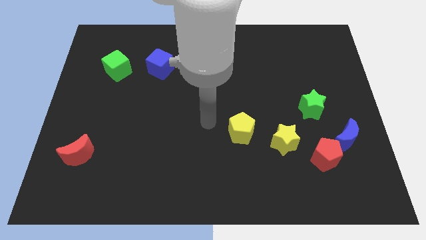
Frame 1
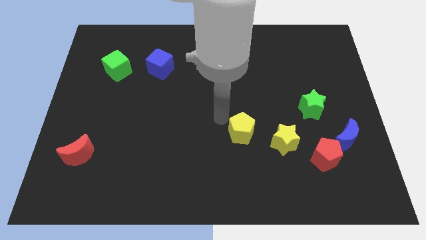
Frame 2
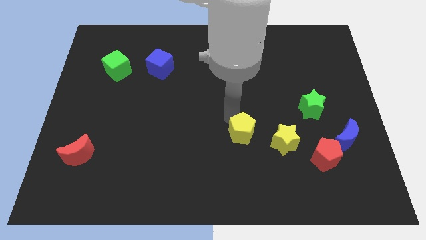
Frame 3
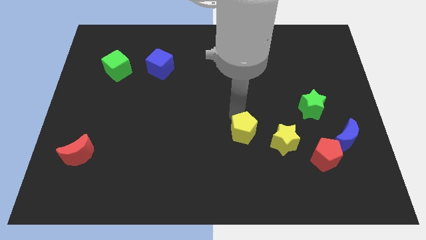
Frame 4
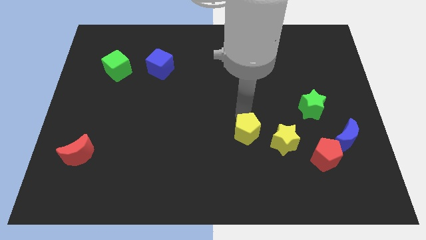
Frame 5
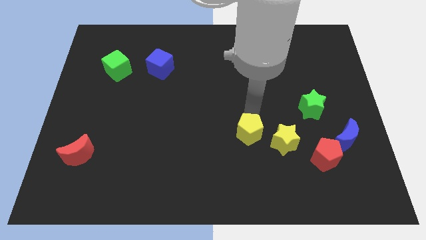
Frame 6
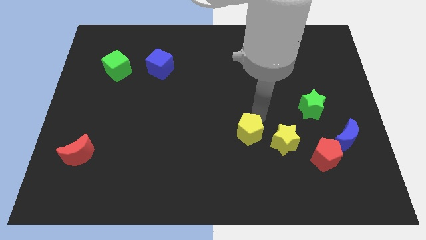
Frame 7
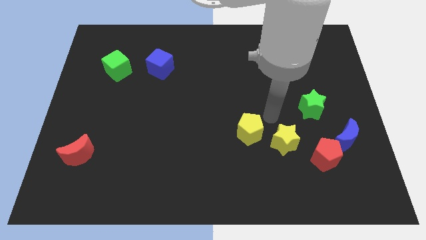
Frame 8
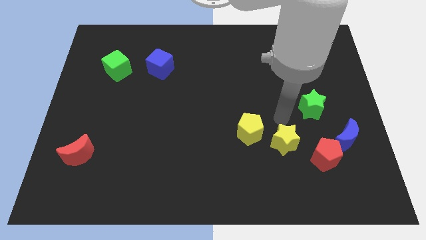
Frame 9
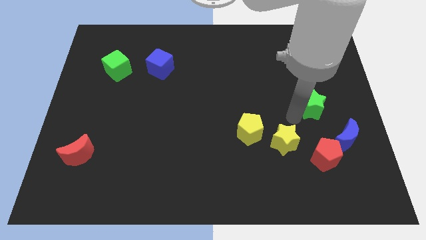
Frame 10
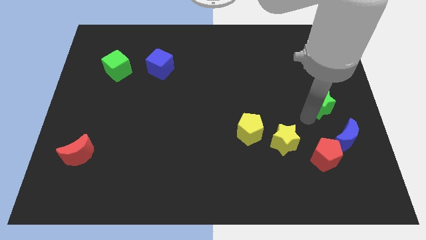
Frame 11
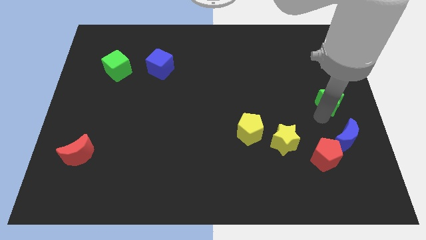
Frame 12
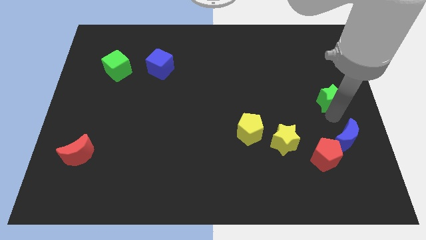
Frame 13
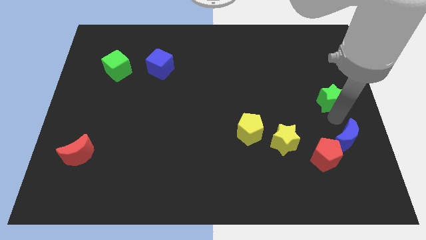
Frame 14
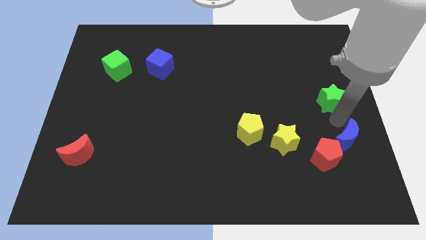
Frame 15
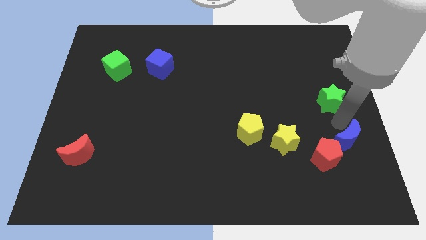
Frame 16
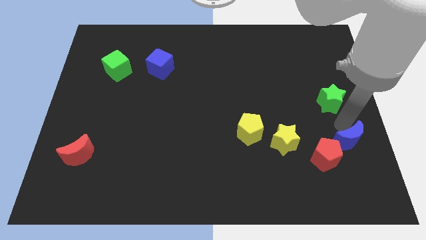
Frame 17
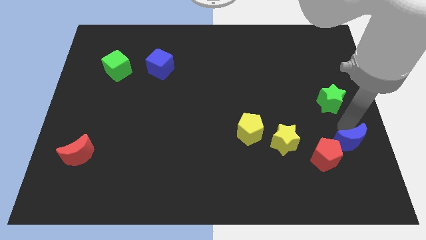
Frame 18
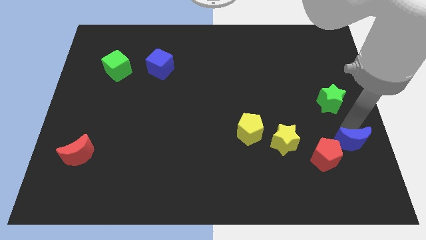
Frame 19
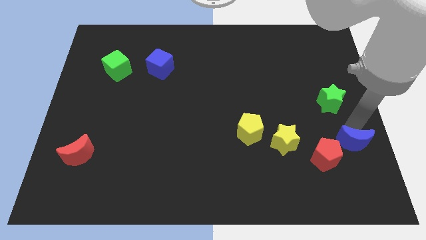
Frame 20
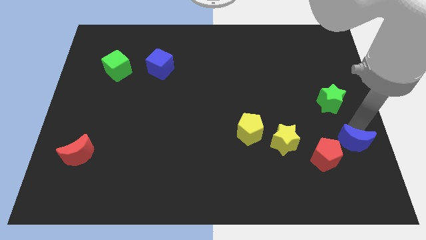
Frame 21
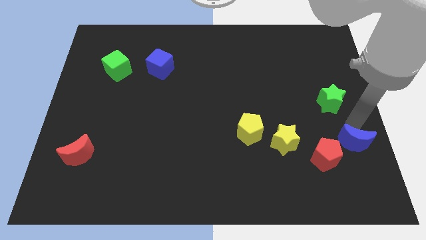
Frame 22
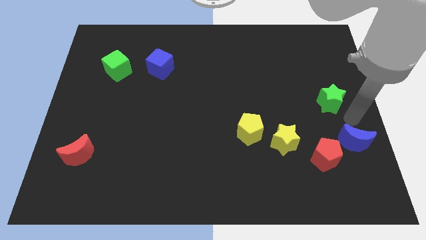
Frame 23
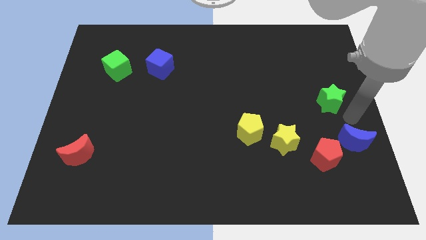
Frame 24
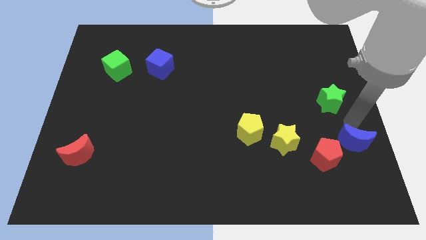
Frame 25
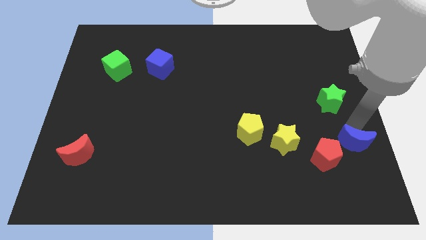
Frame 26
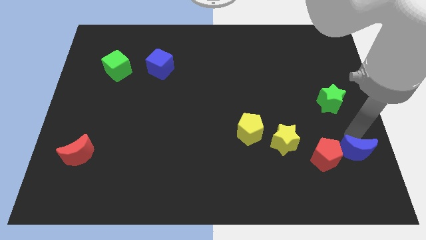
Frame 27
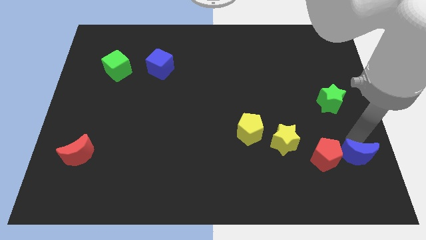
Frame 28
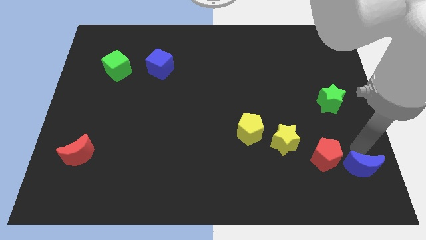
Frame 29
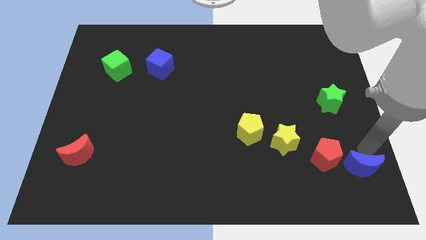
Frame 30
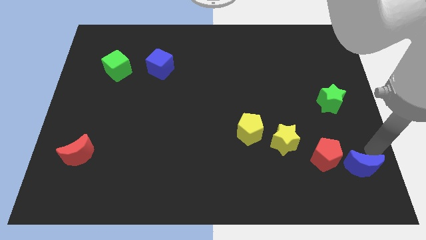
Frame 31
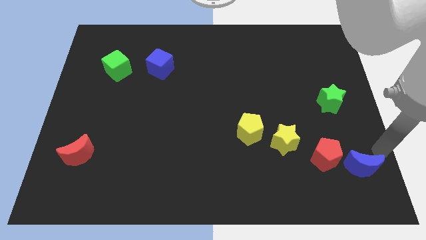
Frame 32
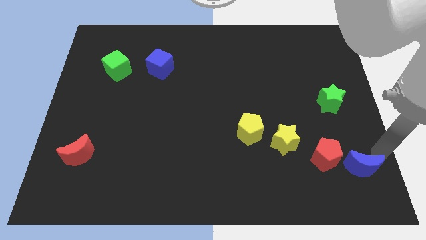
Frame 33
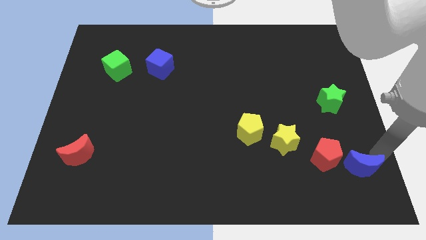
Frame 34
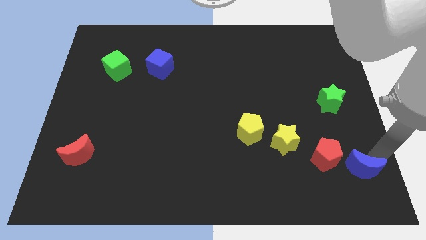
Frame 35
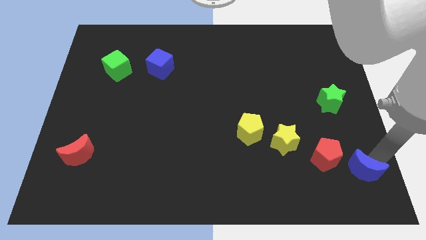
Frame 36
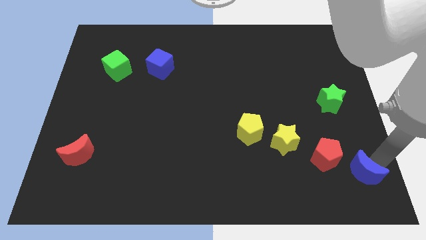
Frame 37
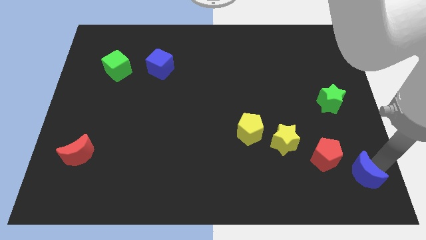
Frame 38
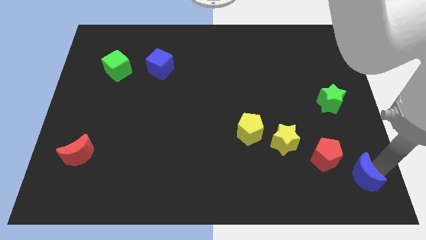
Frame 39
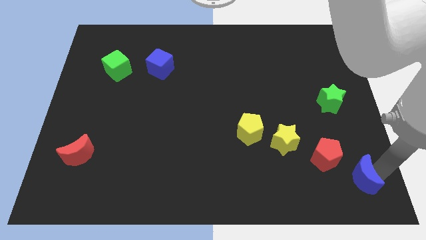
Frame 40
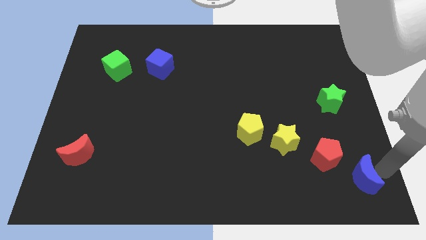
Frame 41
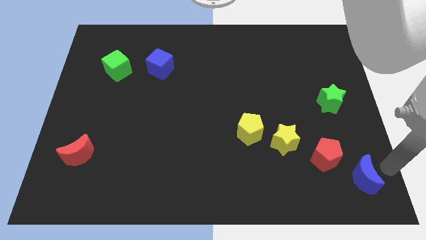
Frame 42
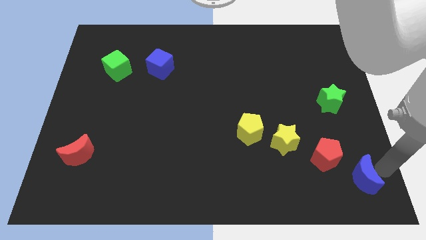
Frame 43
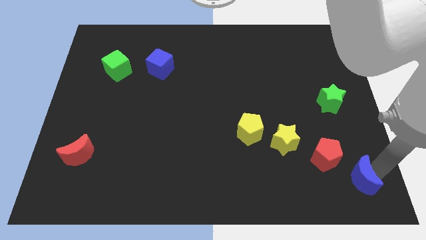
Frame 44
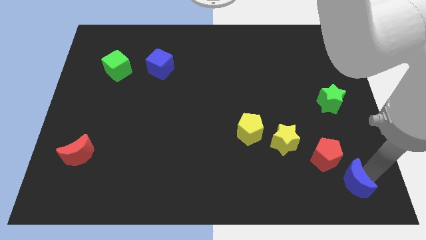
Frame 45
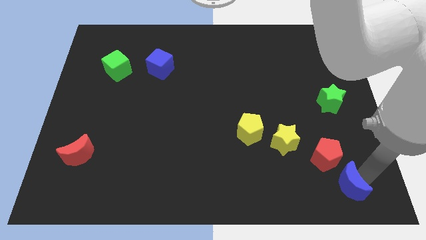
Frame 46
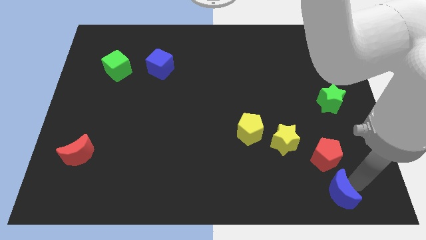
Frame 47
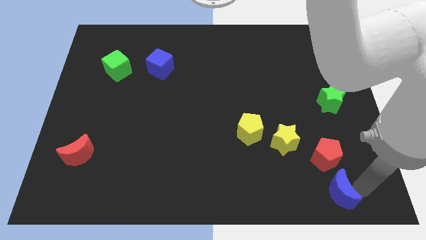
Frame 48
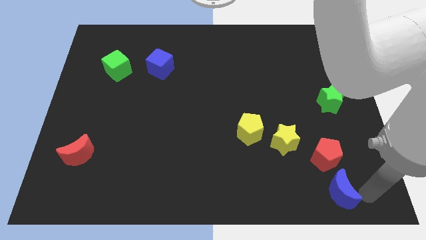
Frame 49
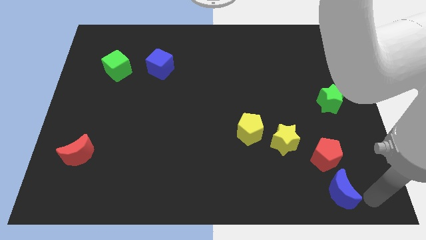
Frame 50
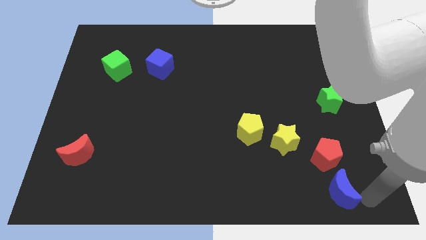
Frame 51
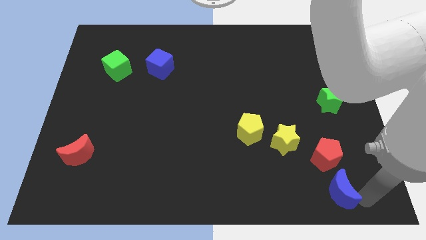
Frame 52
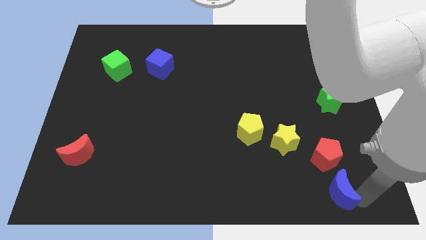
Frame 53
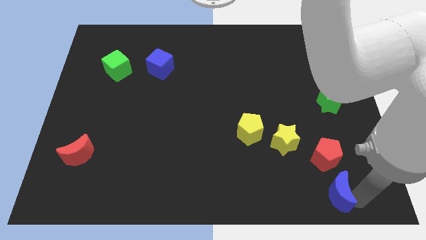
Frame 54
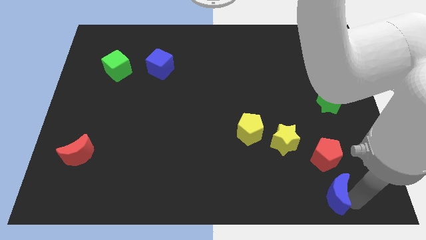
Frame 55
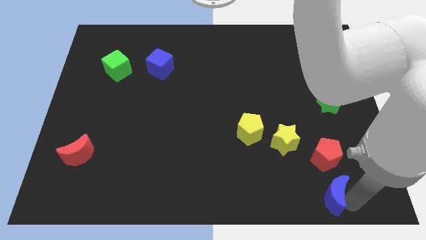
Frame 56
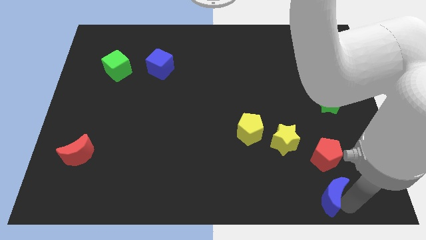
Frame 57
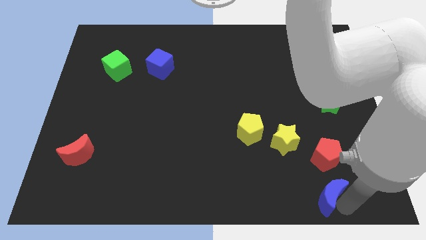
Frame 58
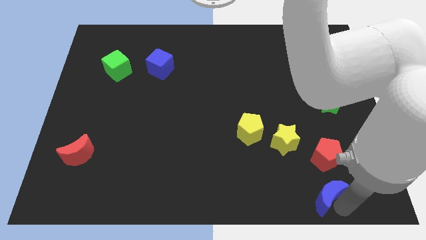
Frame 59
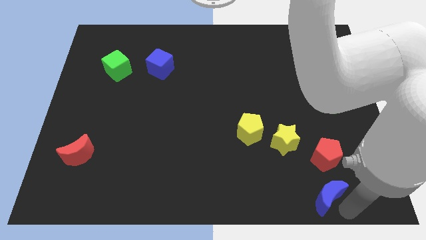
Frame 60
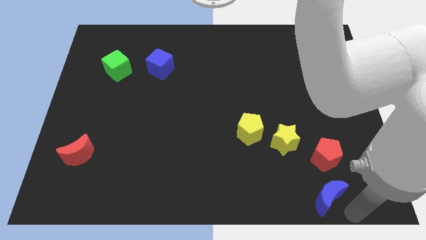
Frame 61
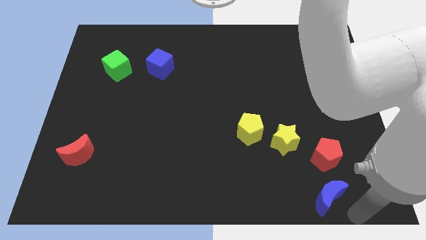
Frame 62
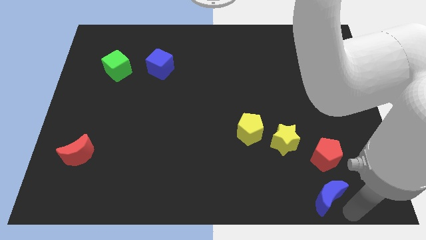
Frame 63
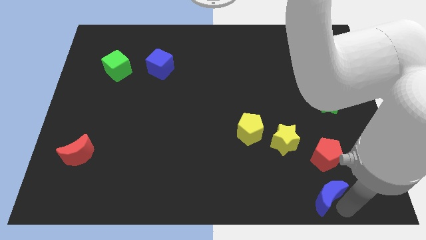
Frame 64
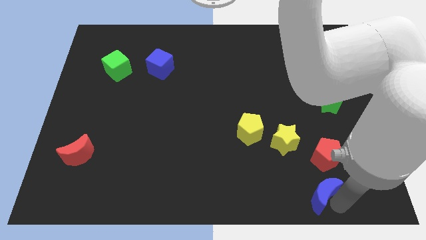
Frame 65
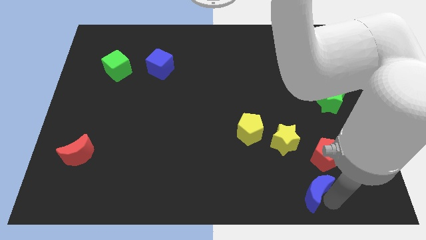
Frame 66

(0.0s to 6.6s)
push the blue moon to the bottom side of the yellow star
